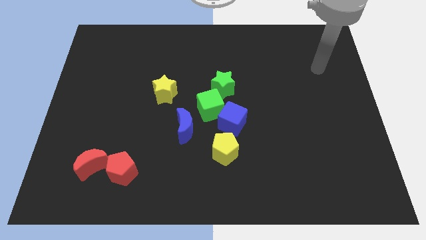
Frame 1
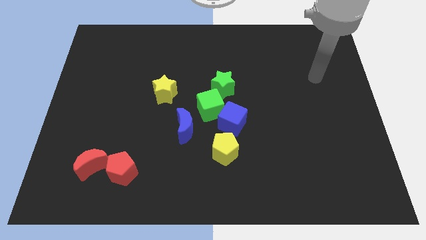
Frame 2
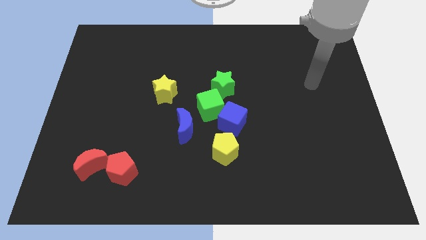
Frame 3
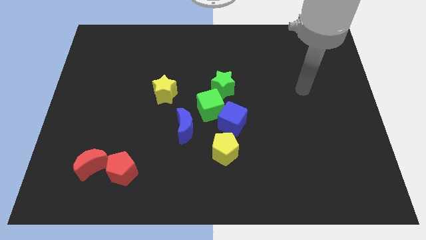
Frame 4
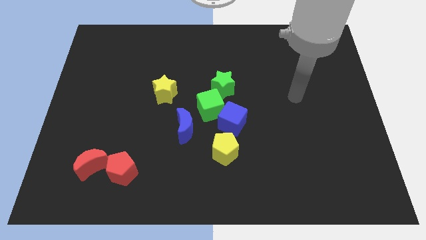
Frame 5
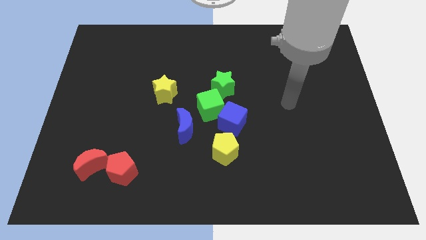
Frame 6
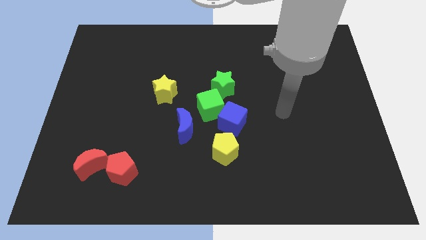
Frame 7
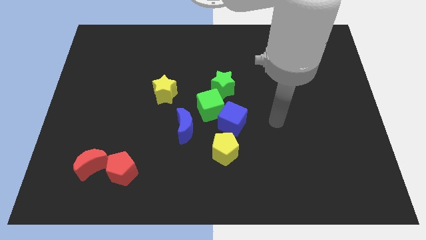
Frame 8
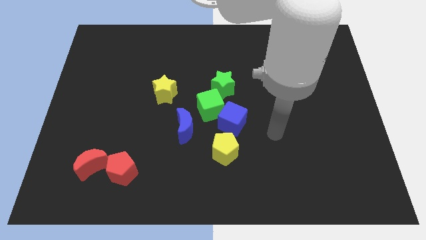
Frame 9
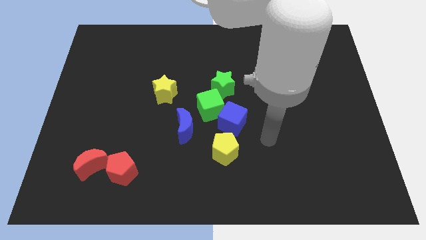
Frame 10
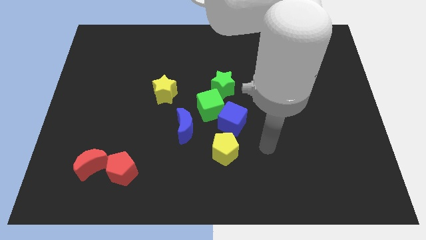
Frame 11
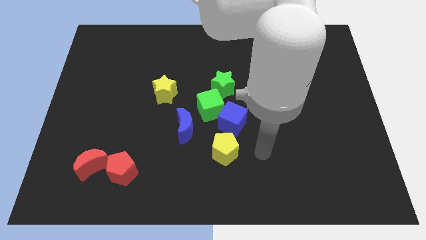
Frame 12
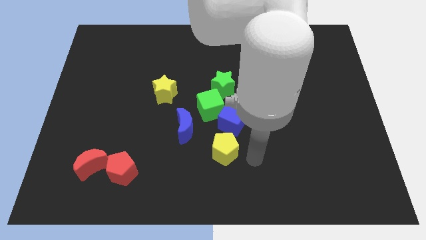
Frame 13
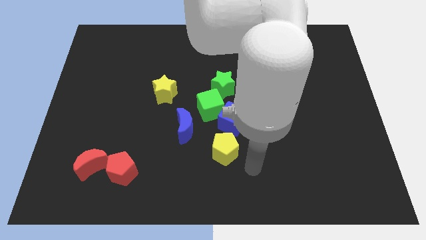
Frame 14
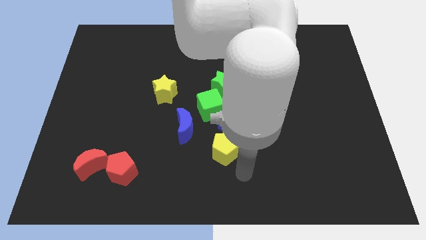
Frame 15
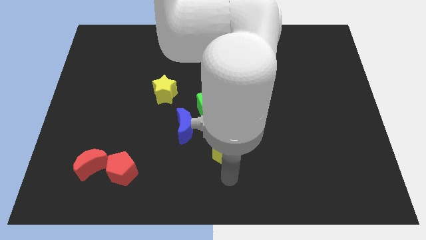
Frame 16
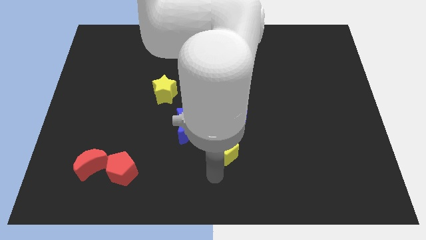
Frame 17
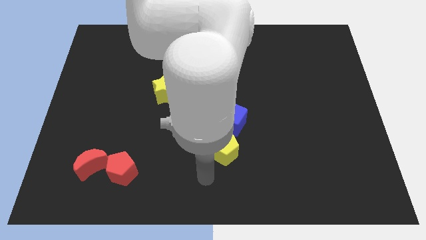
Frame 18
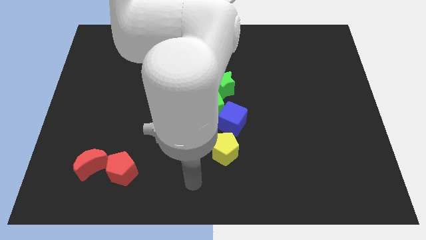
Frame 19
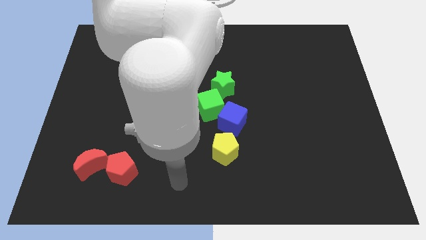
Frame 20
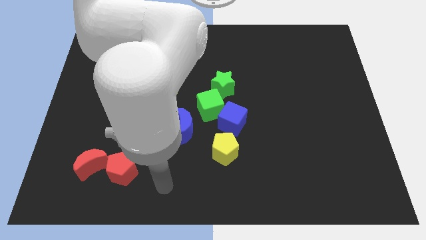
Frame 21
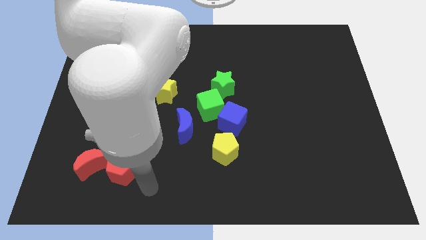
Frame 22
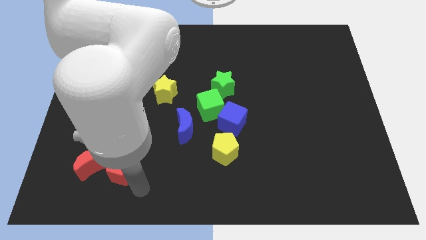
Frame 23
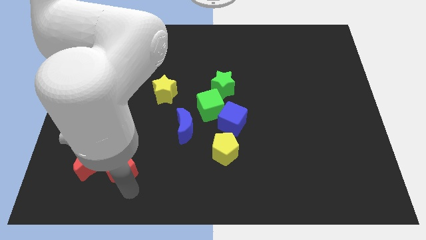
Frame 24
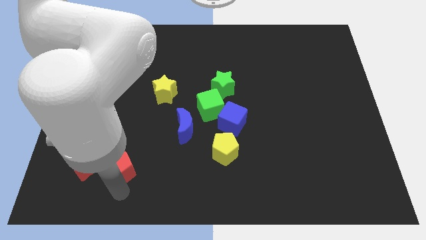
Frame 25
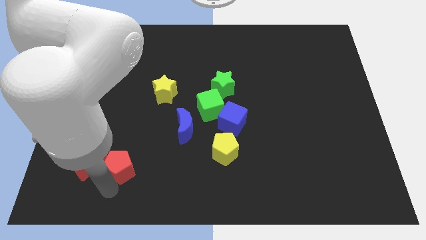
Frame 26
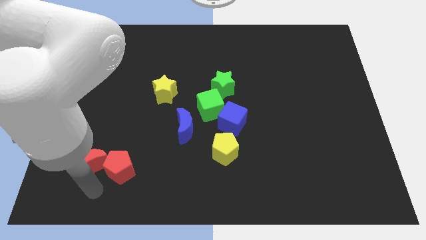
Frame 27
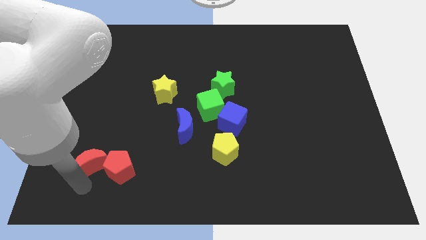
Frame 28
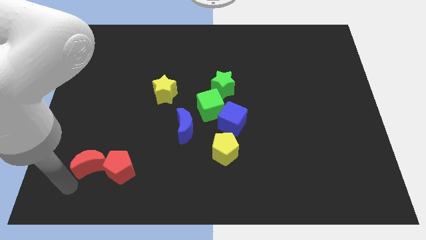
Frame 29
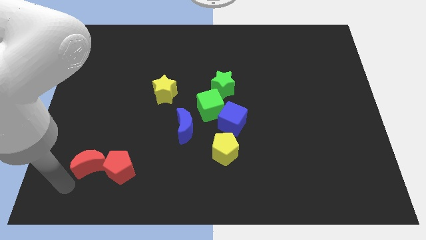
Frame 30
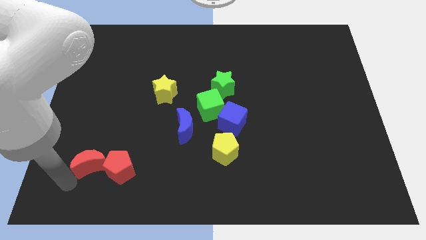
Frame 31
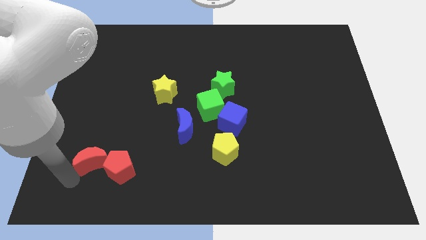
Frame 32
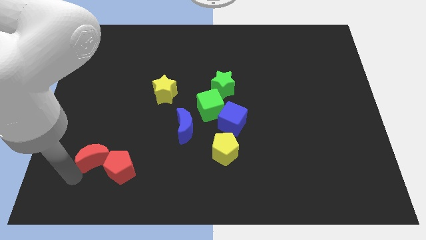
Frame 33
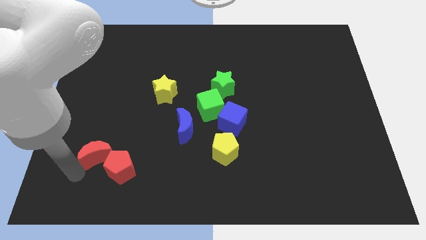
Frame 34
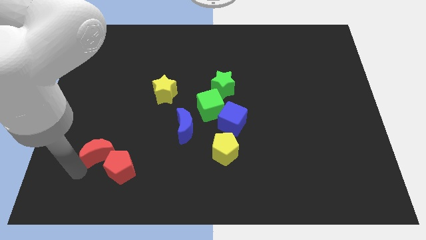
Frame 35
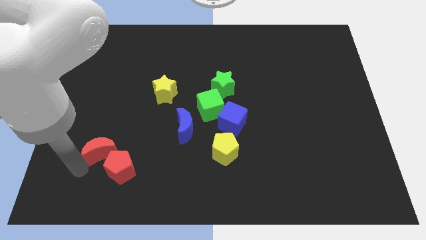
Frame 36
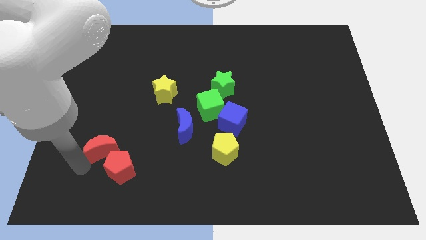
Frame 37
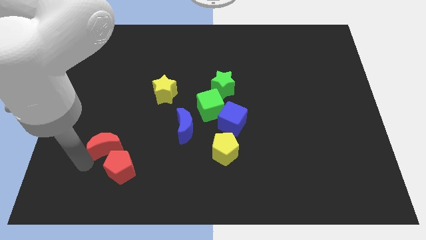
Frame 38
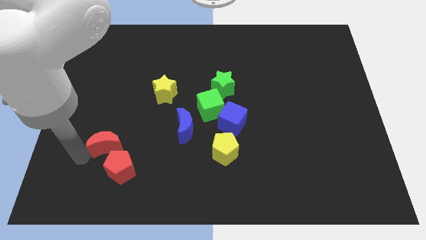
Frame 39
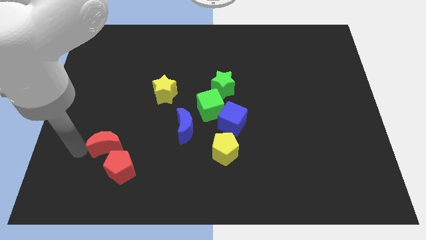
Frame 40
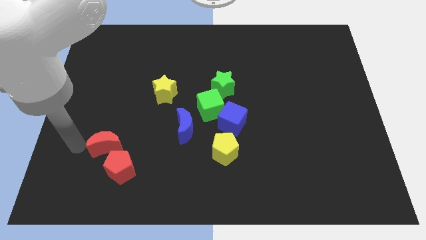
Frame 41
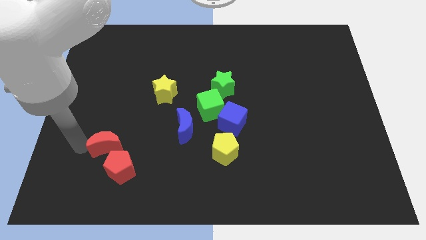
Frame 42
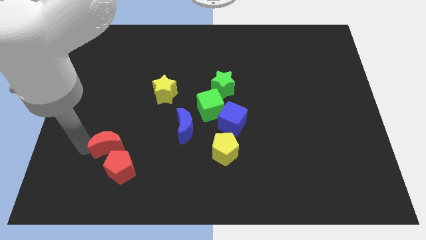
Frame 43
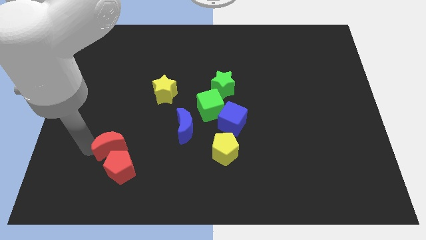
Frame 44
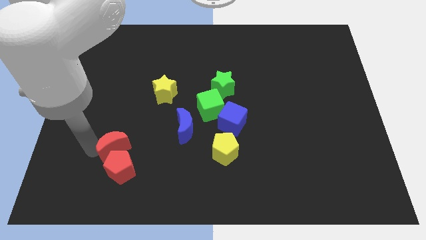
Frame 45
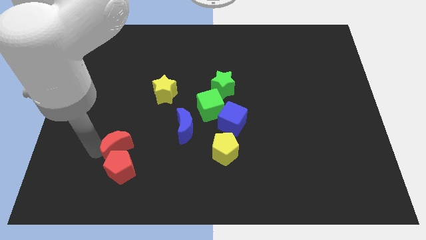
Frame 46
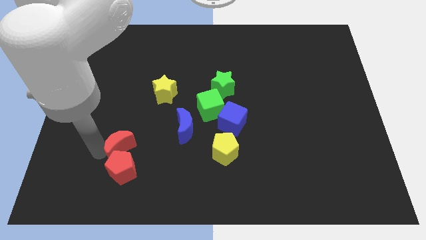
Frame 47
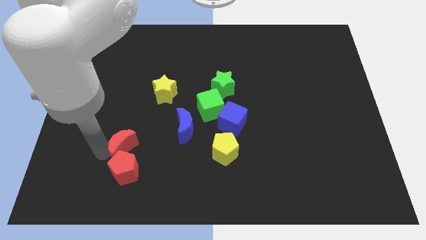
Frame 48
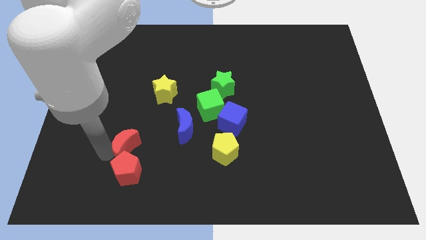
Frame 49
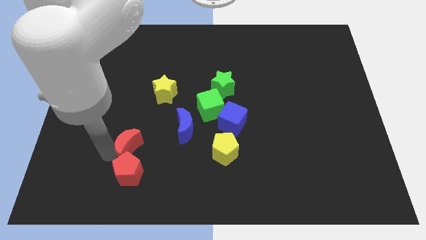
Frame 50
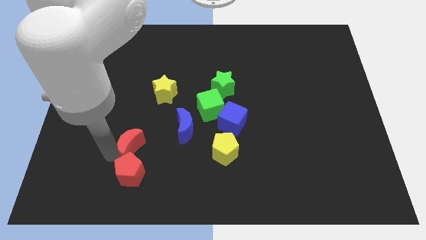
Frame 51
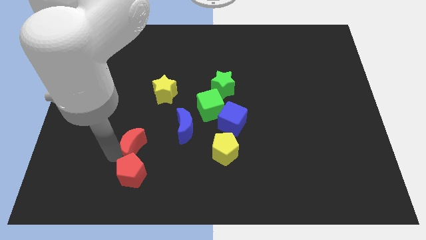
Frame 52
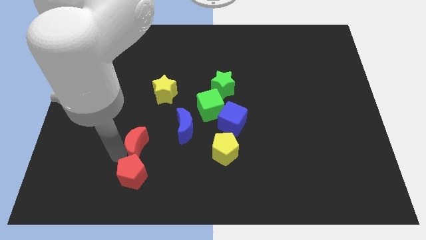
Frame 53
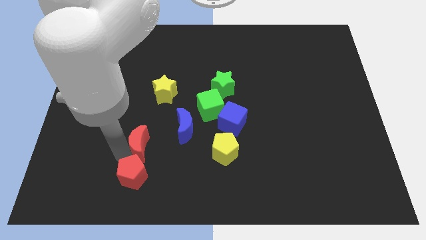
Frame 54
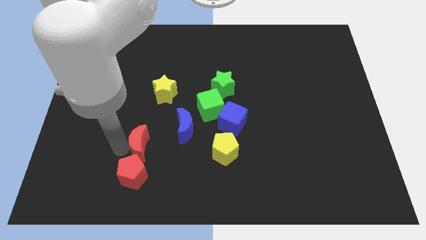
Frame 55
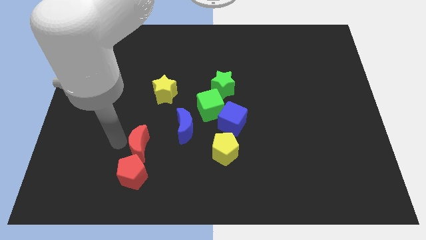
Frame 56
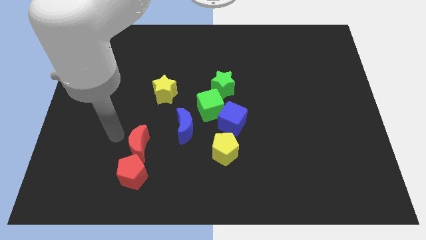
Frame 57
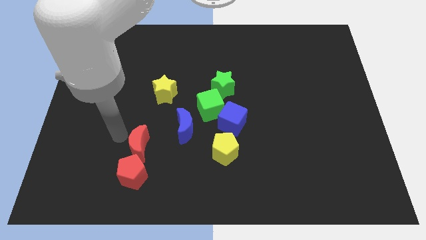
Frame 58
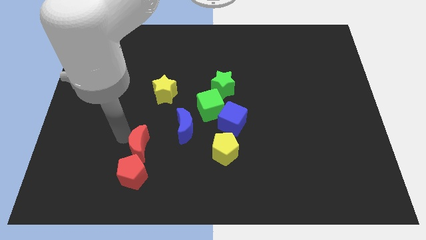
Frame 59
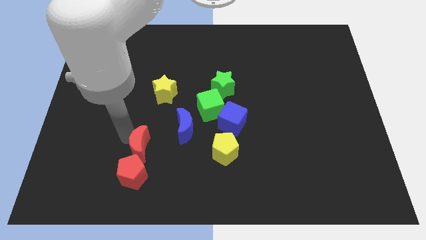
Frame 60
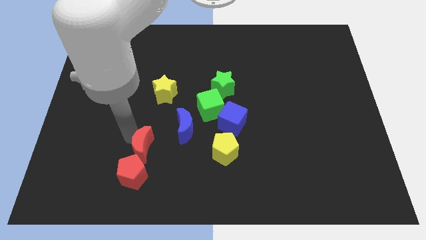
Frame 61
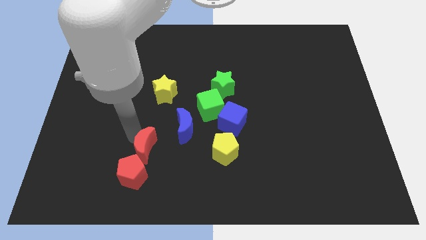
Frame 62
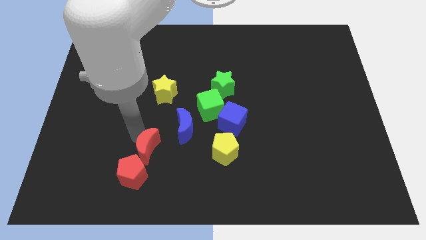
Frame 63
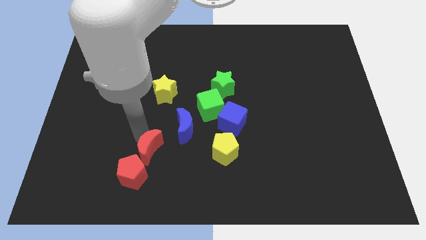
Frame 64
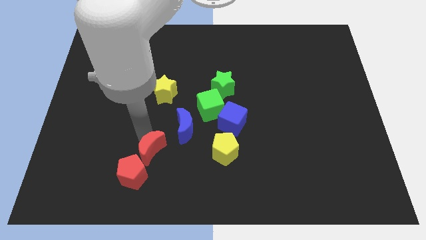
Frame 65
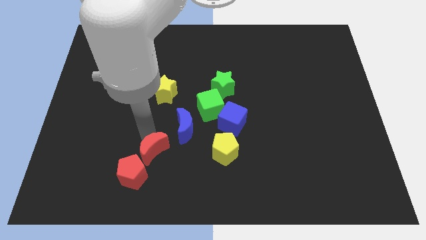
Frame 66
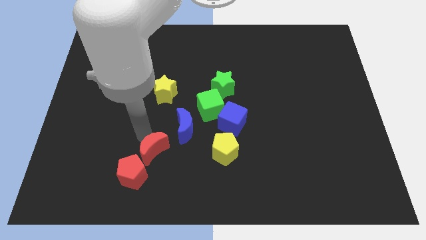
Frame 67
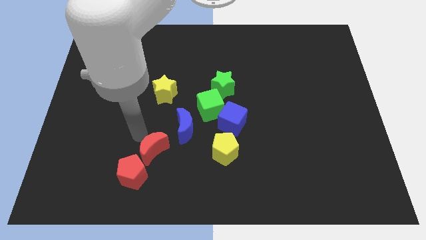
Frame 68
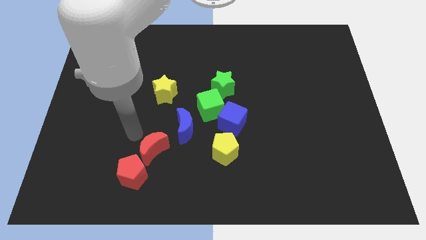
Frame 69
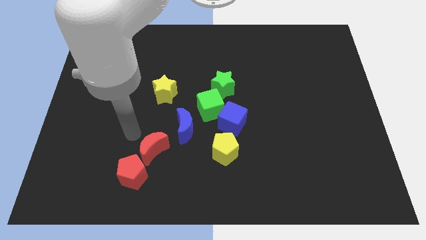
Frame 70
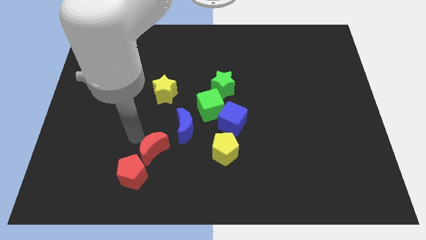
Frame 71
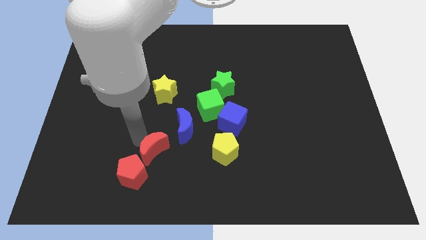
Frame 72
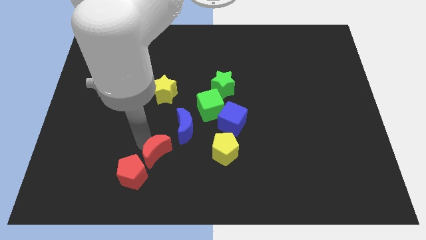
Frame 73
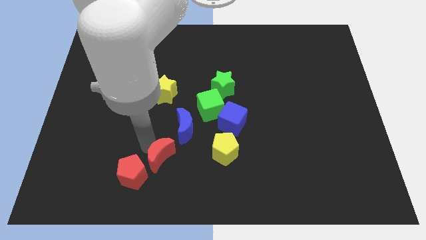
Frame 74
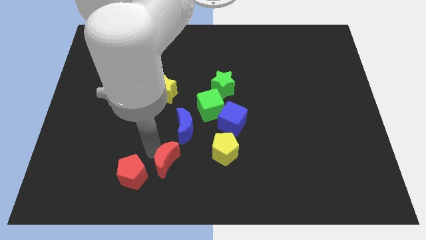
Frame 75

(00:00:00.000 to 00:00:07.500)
move the red moon to the bottom of the blue moon

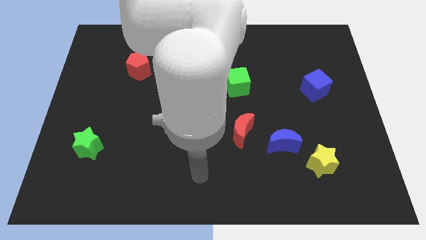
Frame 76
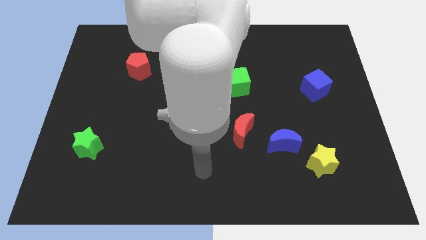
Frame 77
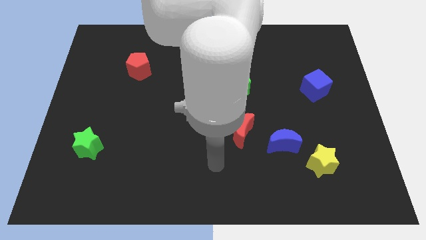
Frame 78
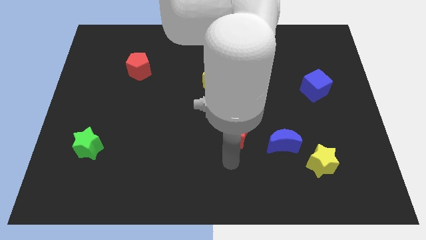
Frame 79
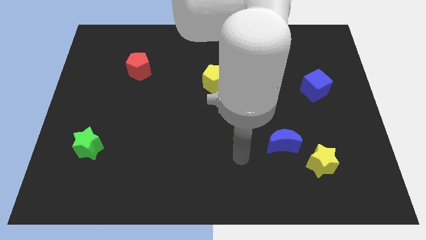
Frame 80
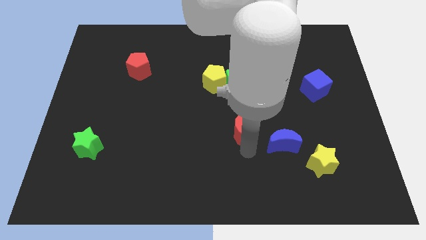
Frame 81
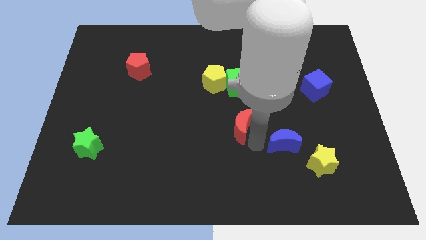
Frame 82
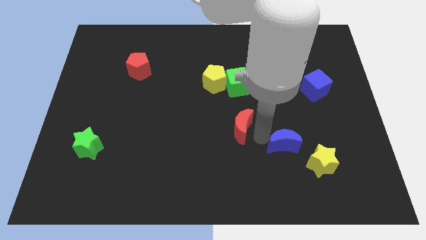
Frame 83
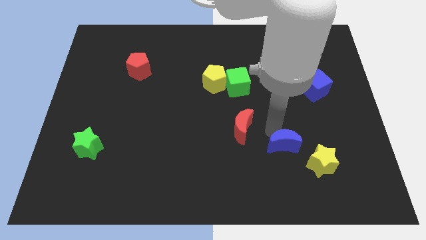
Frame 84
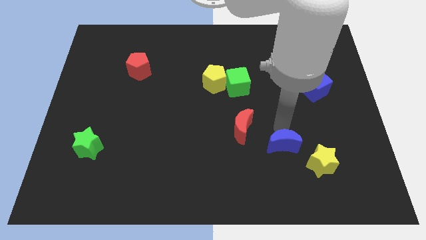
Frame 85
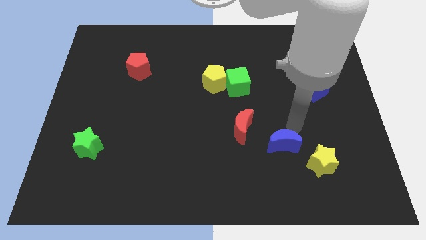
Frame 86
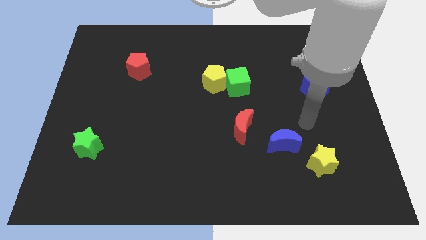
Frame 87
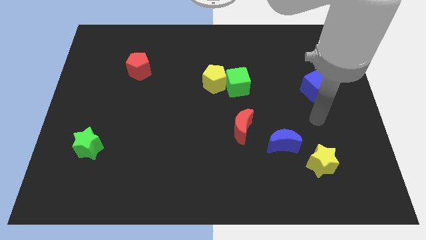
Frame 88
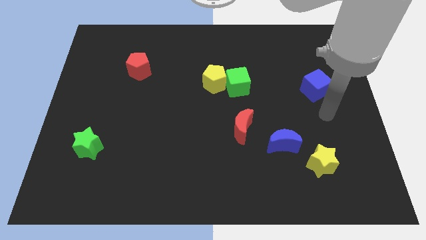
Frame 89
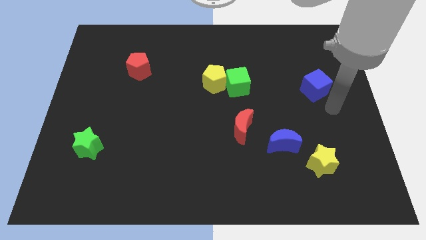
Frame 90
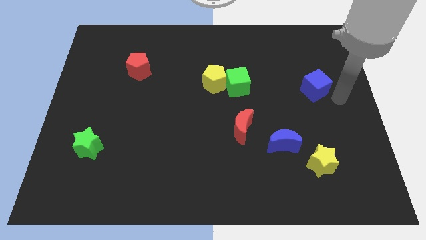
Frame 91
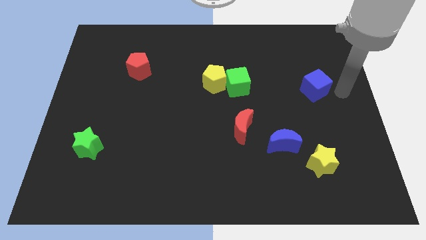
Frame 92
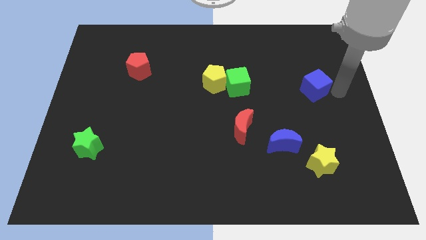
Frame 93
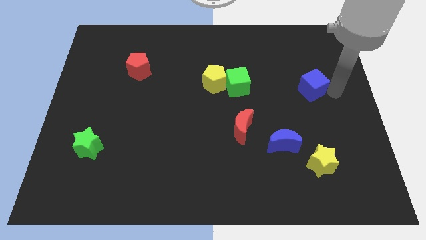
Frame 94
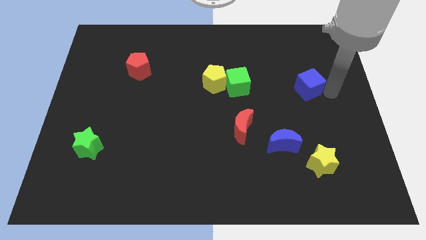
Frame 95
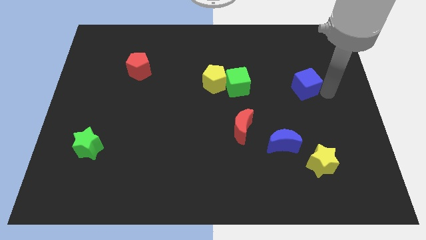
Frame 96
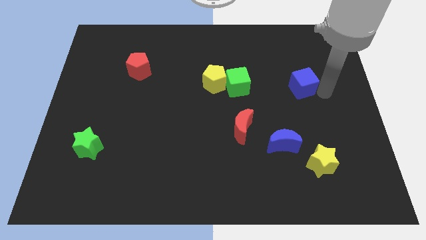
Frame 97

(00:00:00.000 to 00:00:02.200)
put the blue cube right of the green cube
